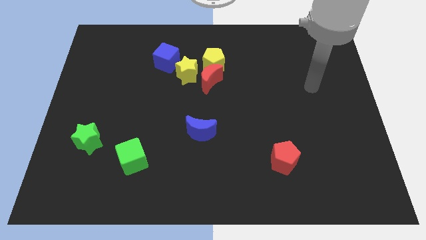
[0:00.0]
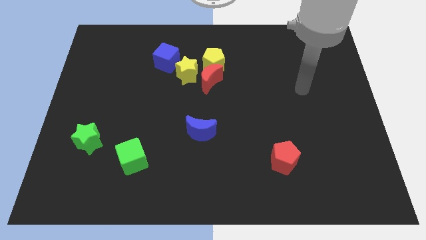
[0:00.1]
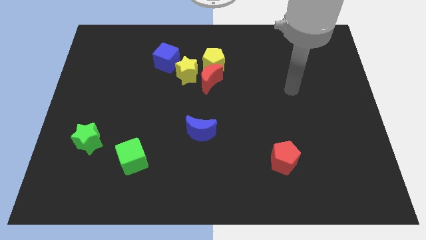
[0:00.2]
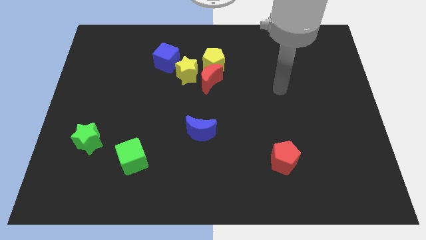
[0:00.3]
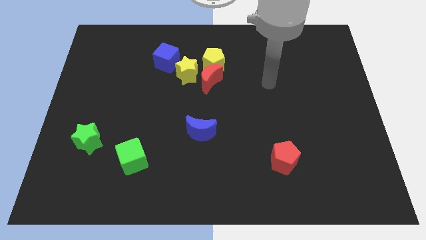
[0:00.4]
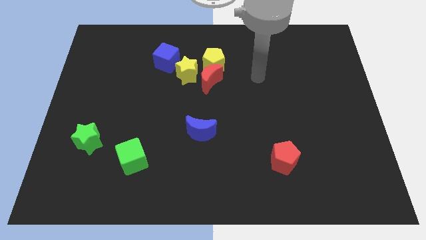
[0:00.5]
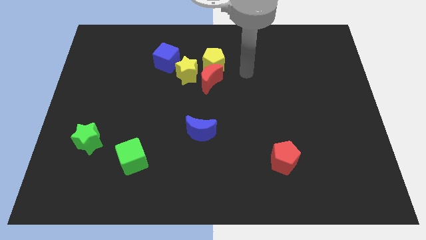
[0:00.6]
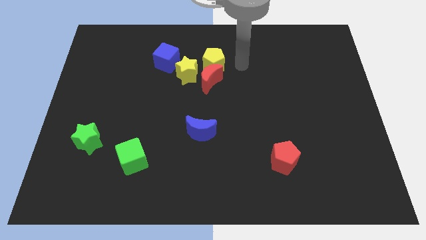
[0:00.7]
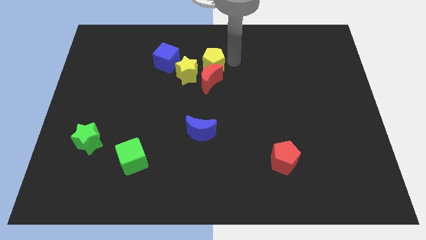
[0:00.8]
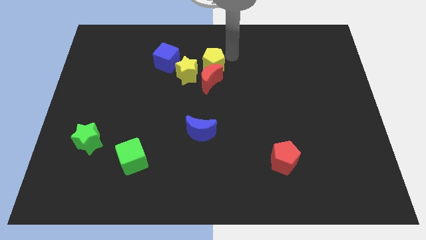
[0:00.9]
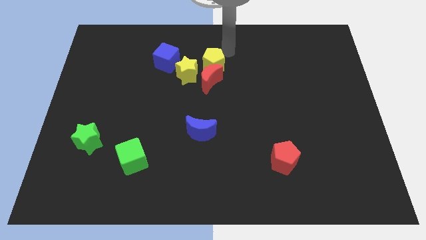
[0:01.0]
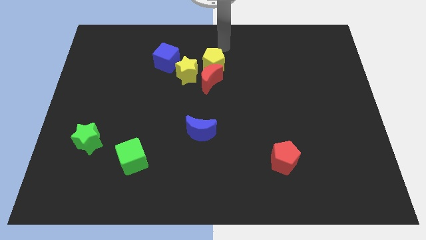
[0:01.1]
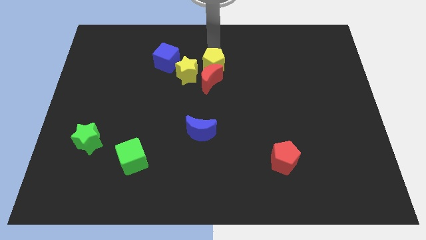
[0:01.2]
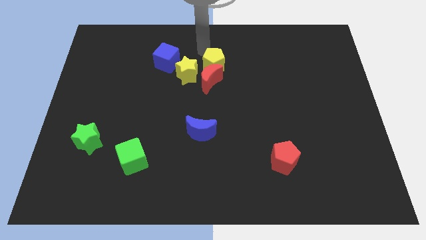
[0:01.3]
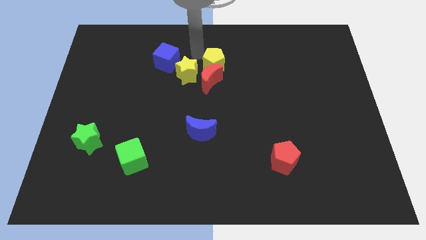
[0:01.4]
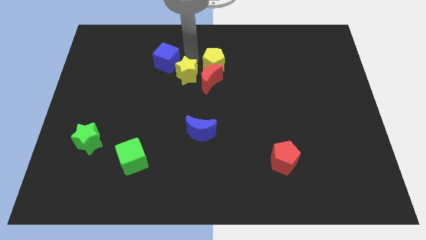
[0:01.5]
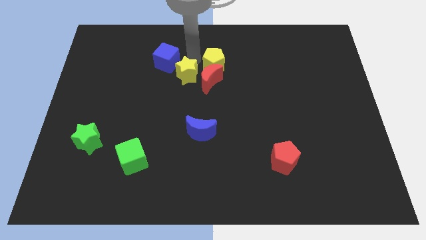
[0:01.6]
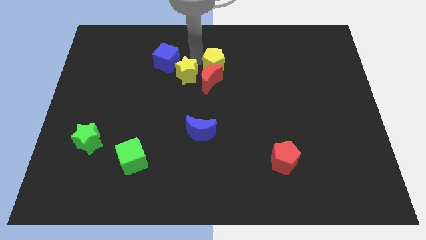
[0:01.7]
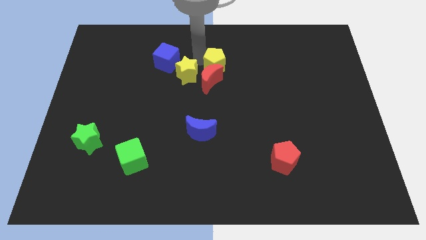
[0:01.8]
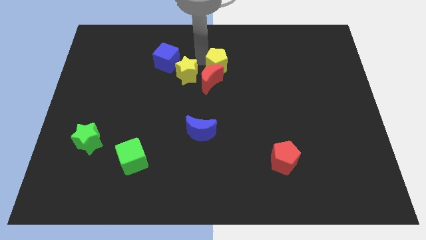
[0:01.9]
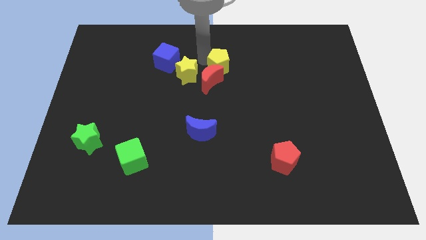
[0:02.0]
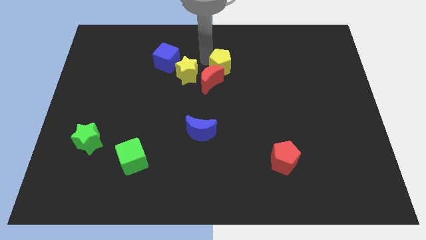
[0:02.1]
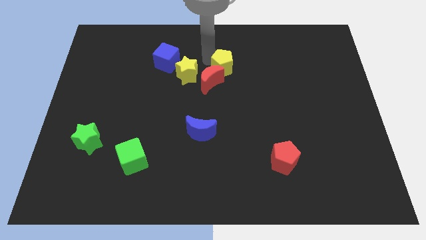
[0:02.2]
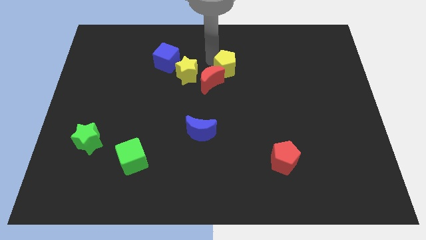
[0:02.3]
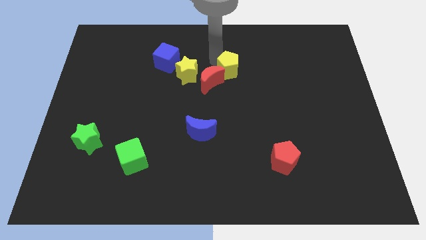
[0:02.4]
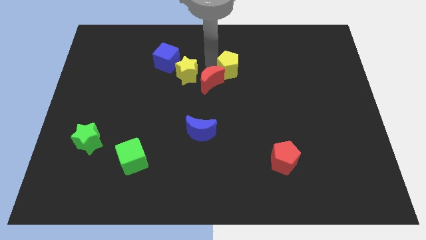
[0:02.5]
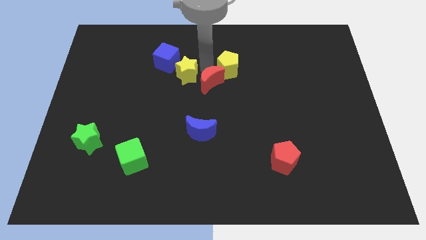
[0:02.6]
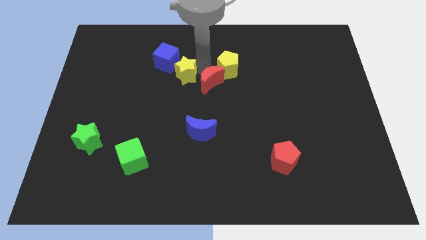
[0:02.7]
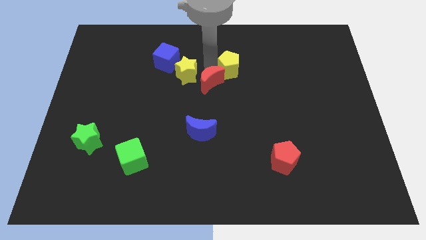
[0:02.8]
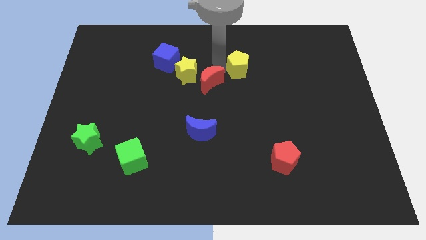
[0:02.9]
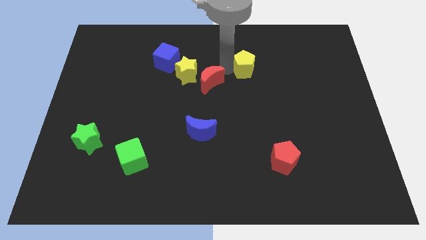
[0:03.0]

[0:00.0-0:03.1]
move the yellow pentagon a little bit right

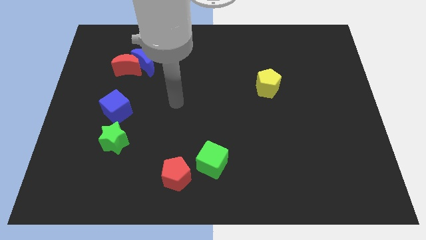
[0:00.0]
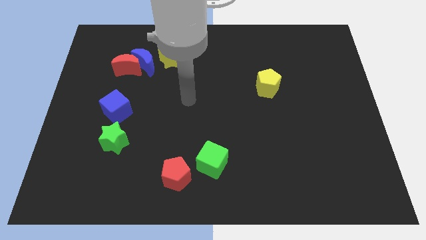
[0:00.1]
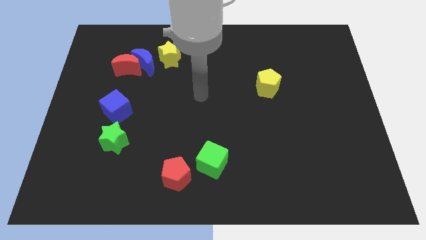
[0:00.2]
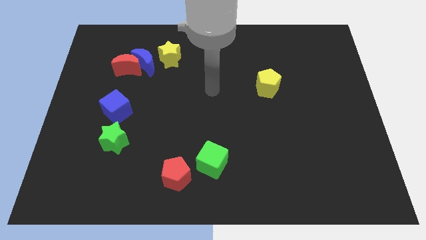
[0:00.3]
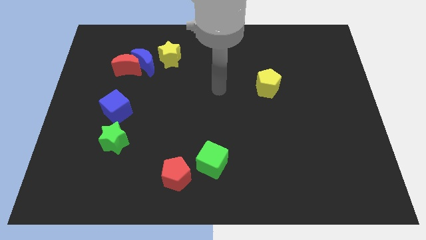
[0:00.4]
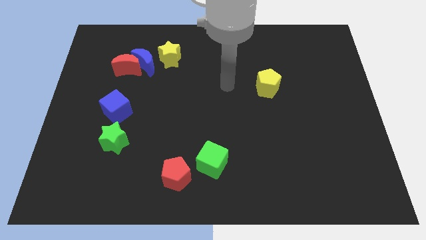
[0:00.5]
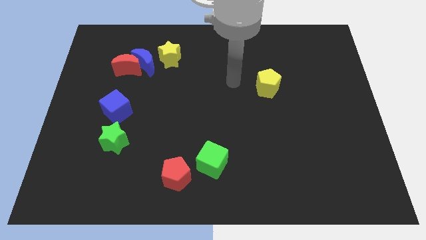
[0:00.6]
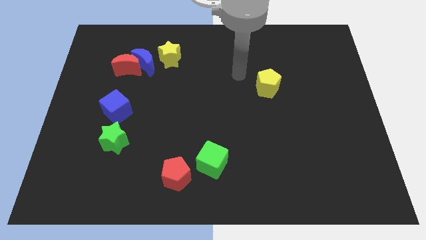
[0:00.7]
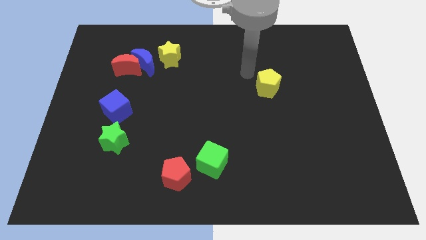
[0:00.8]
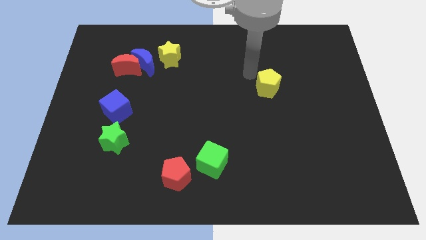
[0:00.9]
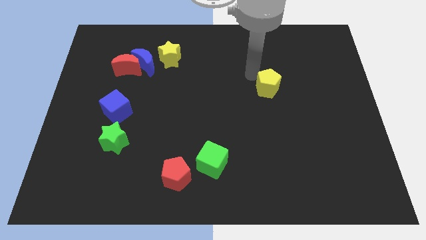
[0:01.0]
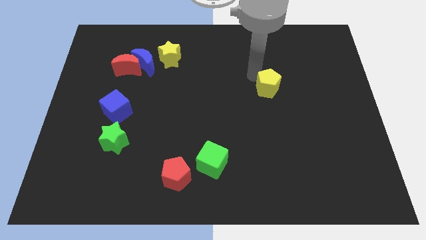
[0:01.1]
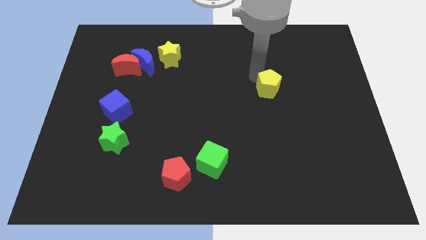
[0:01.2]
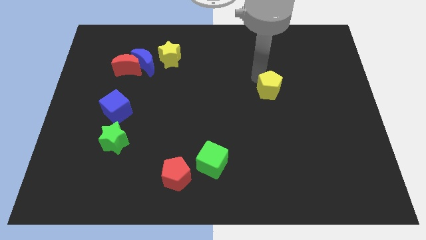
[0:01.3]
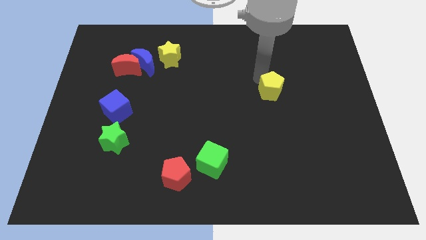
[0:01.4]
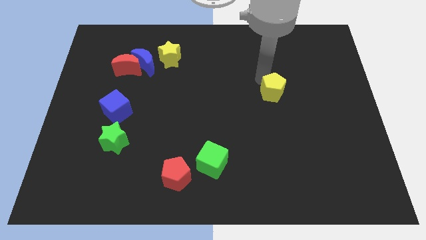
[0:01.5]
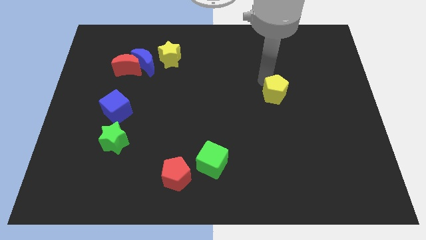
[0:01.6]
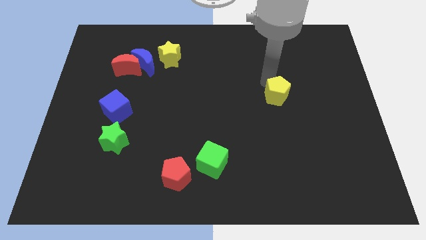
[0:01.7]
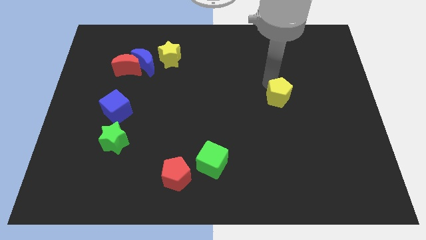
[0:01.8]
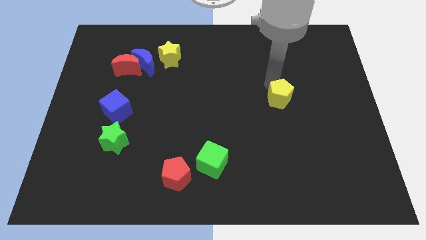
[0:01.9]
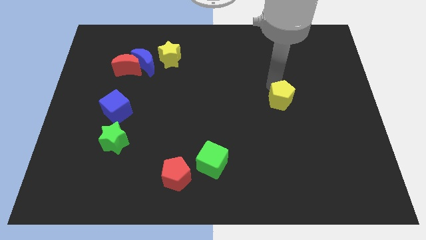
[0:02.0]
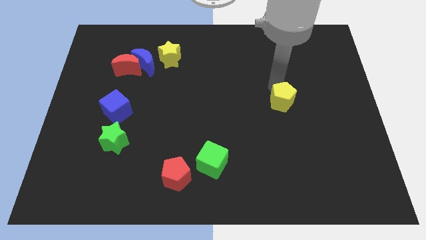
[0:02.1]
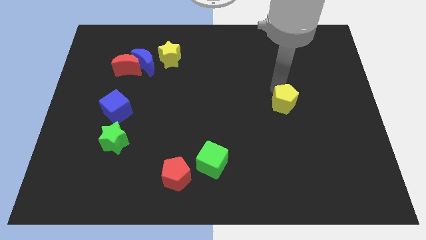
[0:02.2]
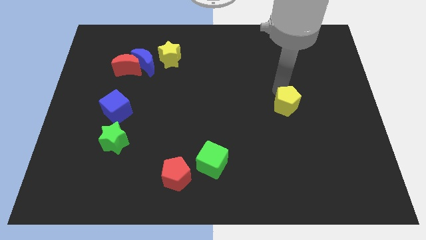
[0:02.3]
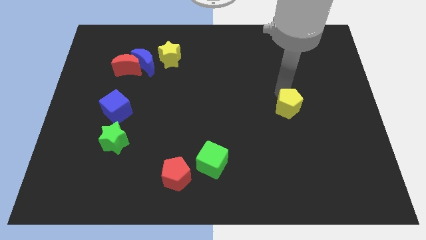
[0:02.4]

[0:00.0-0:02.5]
slightly slide the yellow pentagon diagonally downwards and right

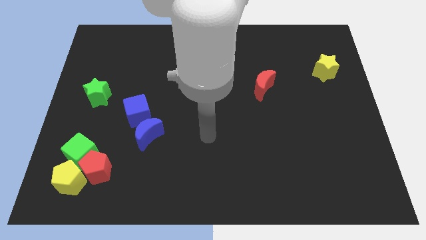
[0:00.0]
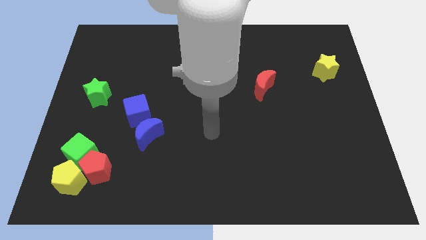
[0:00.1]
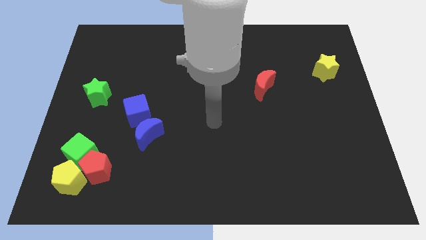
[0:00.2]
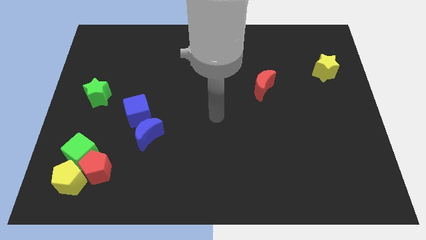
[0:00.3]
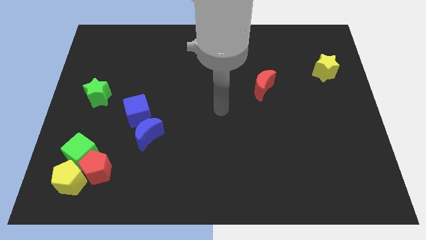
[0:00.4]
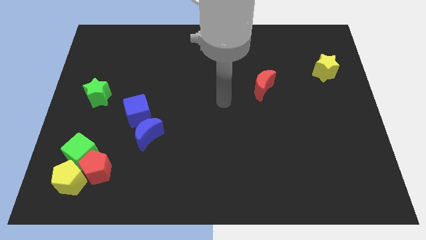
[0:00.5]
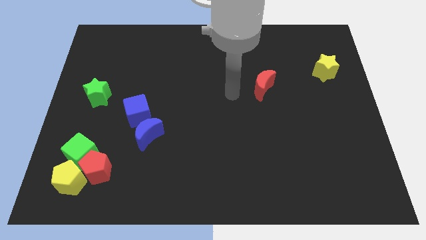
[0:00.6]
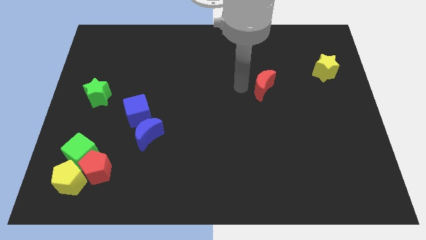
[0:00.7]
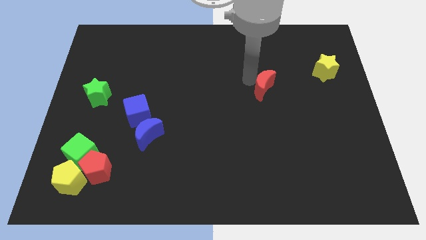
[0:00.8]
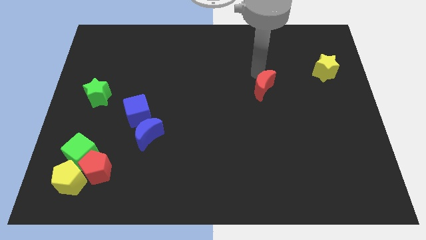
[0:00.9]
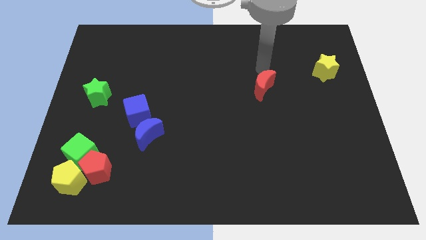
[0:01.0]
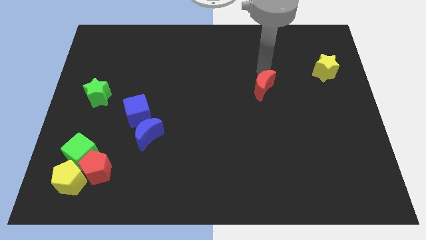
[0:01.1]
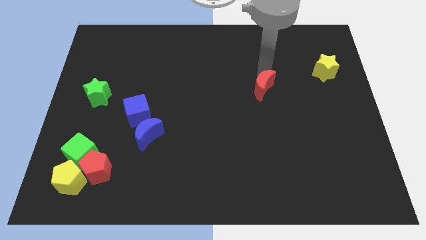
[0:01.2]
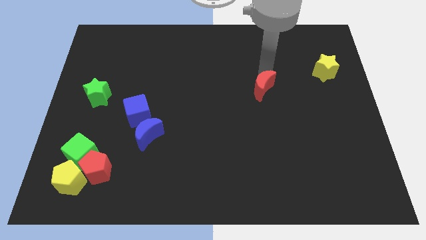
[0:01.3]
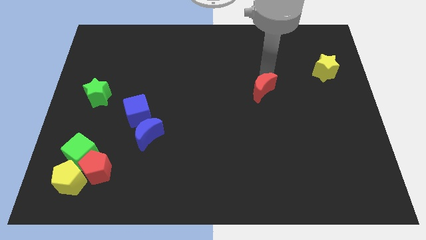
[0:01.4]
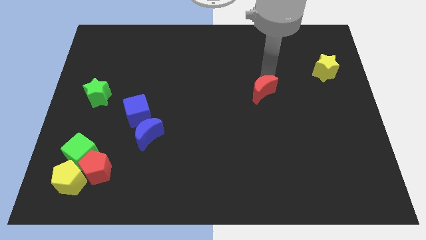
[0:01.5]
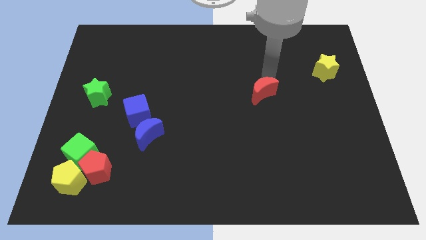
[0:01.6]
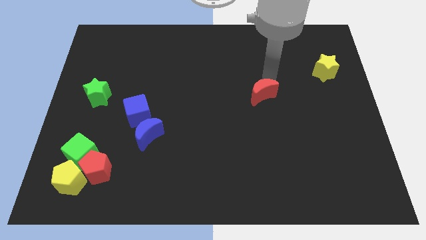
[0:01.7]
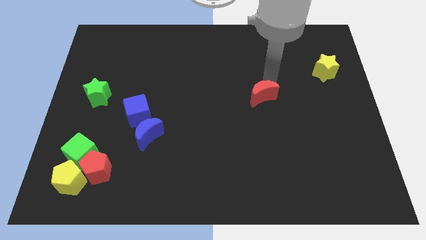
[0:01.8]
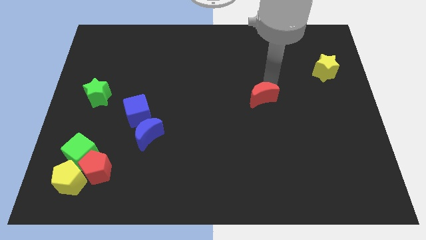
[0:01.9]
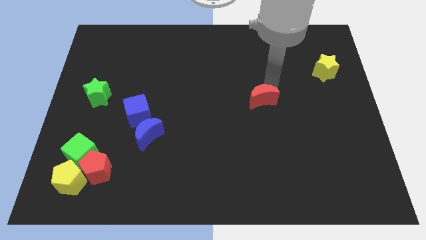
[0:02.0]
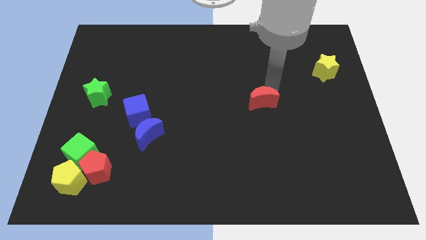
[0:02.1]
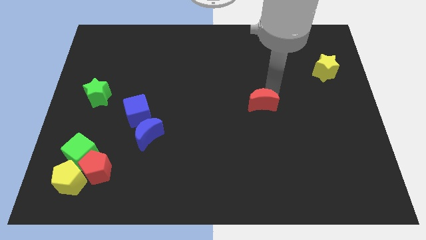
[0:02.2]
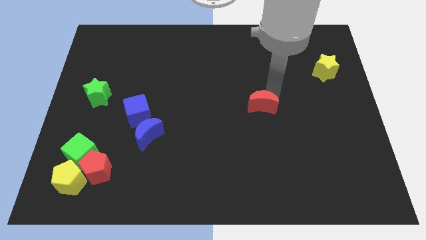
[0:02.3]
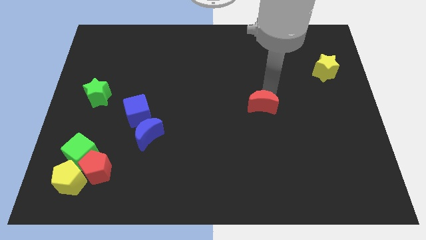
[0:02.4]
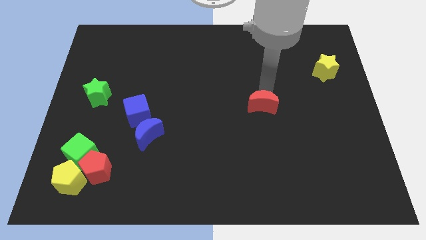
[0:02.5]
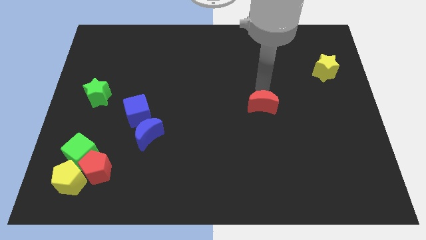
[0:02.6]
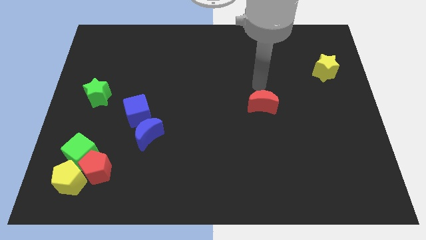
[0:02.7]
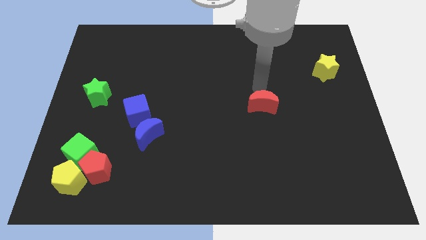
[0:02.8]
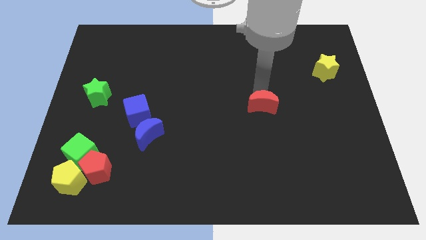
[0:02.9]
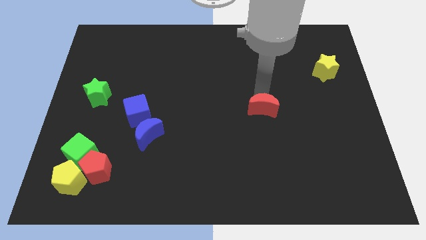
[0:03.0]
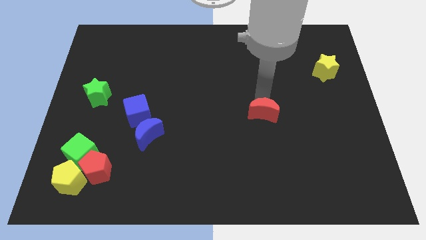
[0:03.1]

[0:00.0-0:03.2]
push the red moon a bit down
